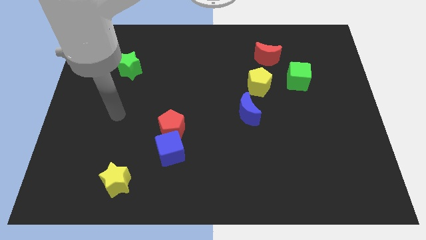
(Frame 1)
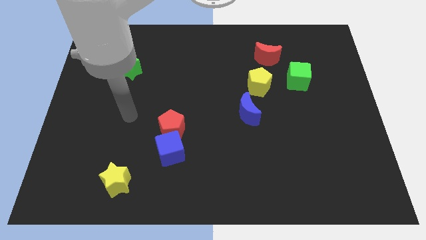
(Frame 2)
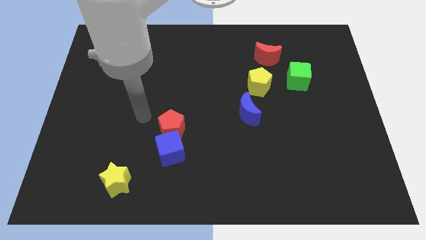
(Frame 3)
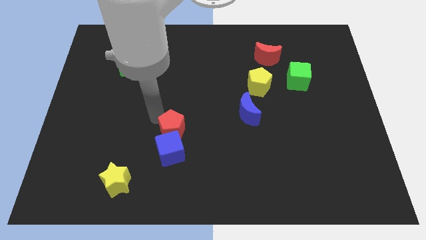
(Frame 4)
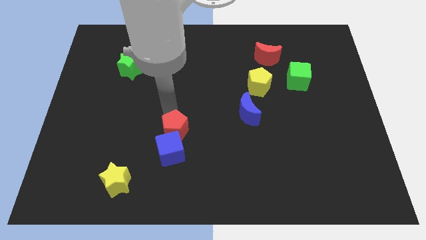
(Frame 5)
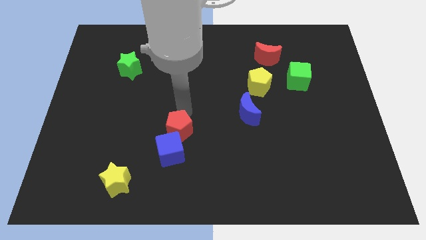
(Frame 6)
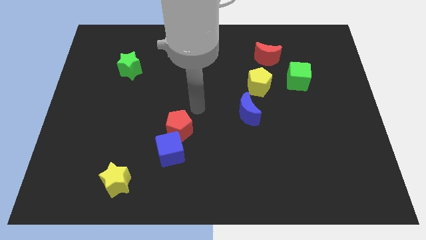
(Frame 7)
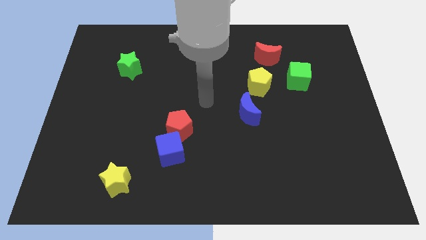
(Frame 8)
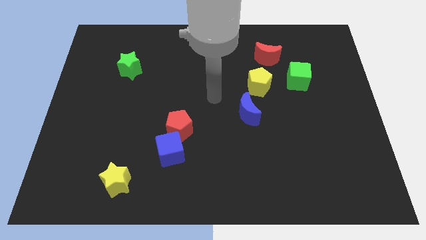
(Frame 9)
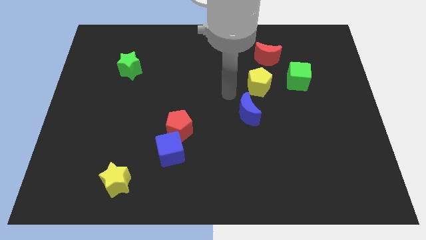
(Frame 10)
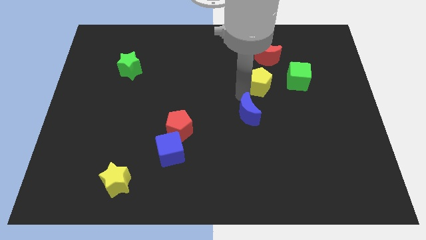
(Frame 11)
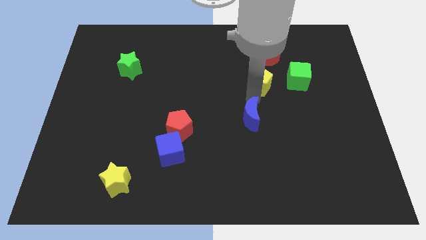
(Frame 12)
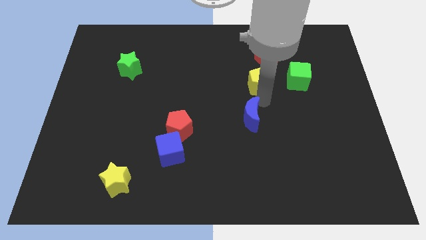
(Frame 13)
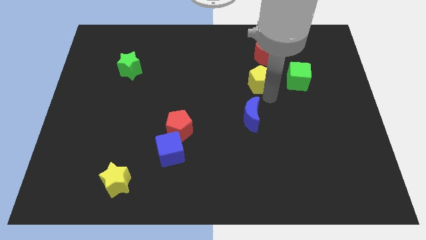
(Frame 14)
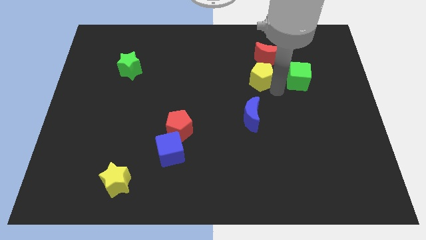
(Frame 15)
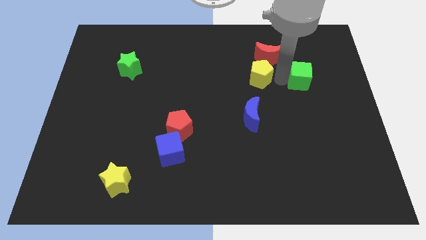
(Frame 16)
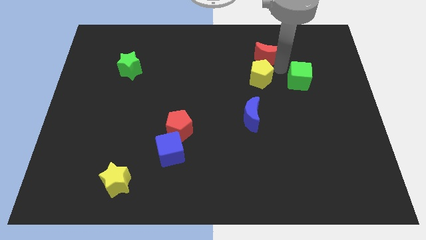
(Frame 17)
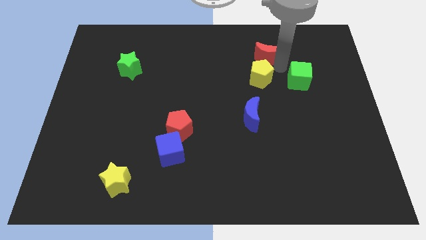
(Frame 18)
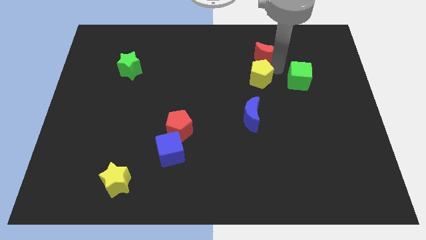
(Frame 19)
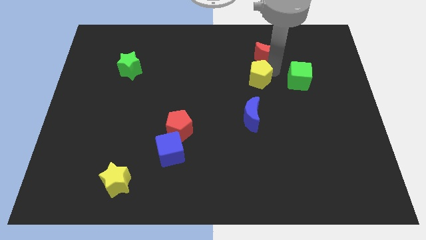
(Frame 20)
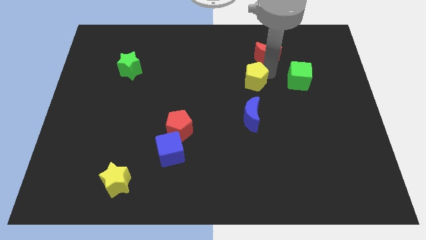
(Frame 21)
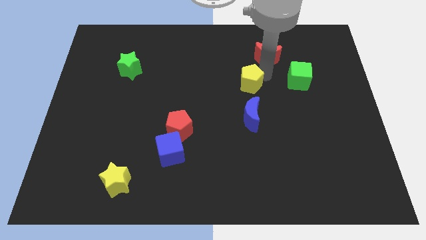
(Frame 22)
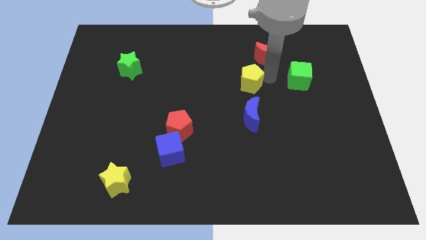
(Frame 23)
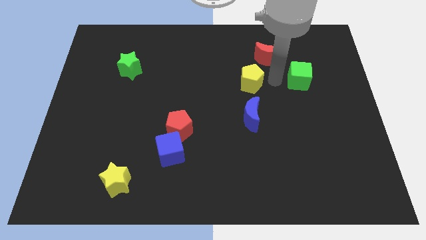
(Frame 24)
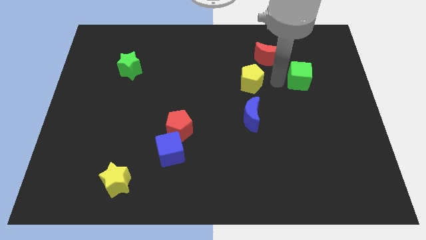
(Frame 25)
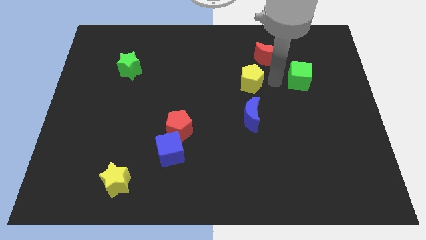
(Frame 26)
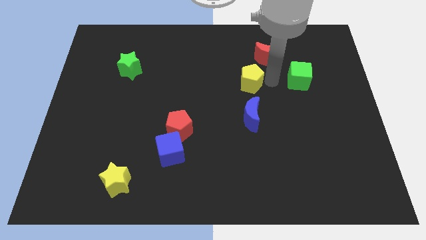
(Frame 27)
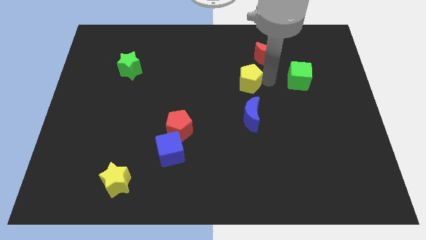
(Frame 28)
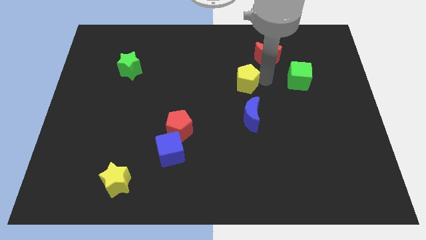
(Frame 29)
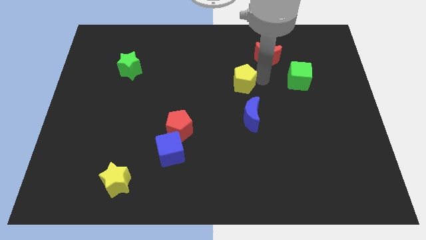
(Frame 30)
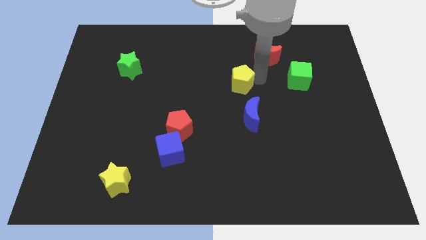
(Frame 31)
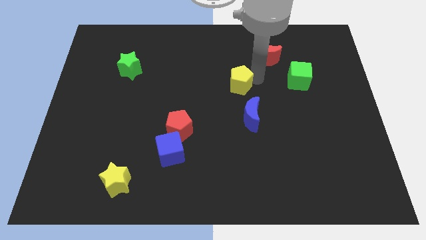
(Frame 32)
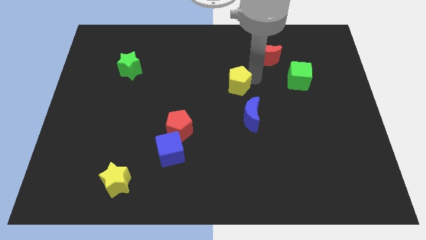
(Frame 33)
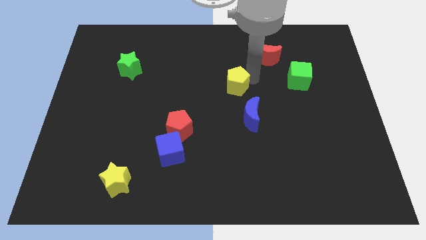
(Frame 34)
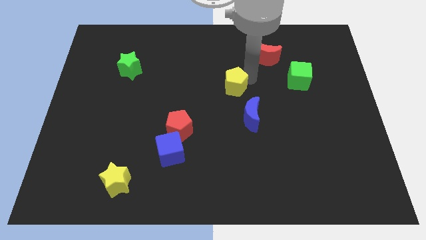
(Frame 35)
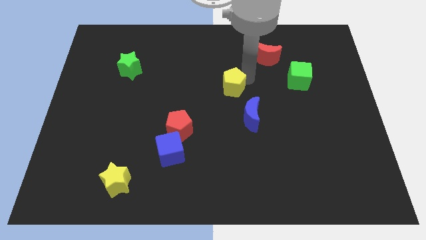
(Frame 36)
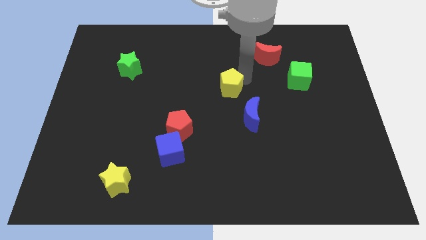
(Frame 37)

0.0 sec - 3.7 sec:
slide the yellow pentagon to the left slightly

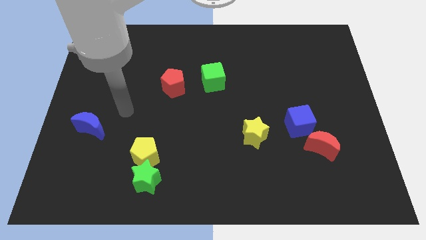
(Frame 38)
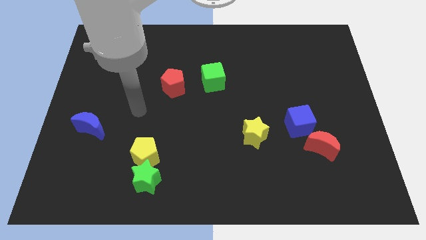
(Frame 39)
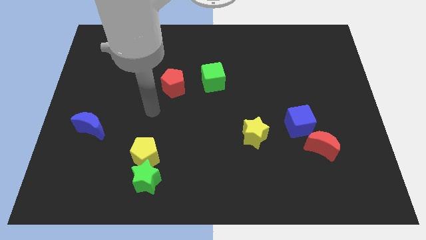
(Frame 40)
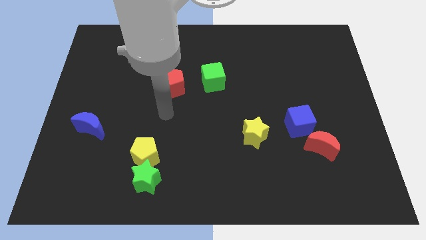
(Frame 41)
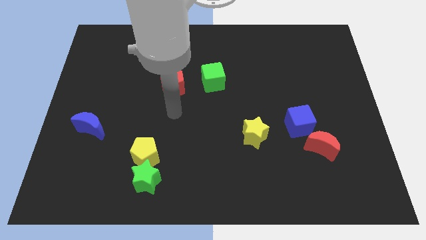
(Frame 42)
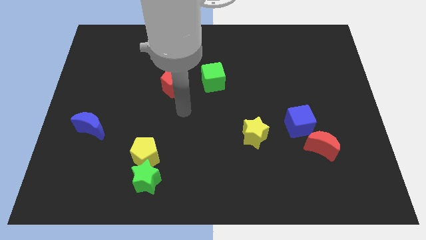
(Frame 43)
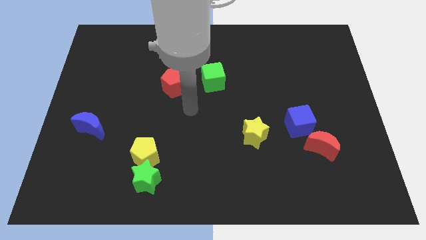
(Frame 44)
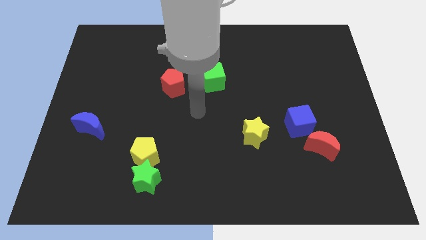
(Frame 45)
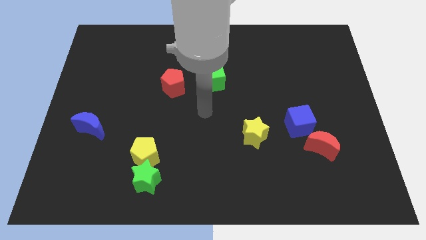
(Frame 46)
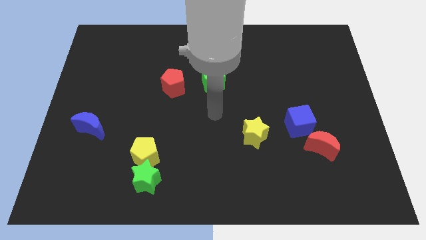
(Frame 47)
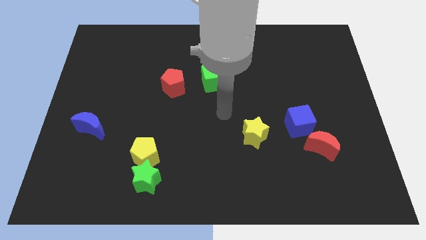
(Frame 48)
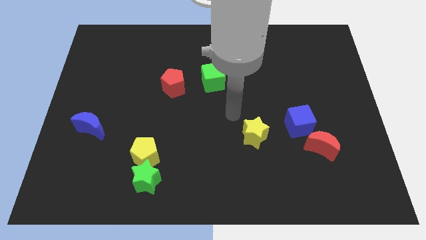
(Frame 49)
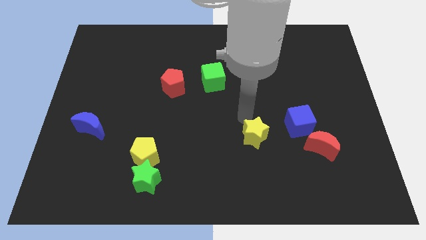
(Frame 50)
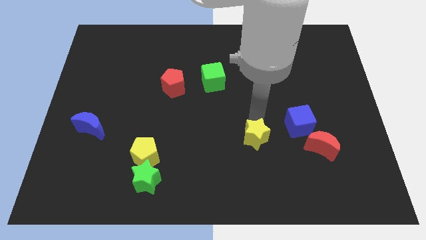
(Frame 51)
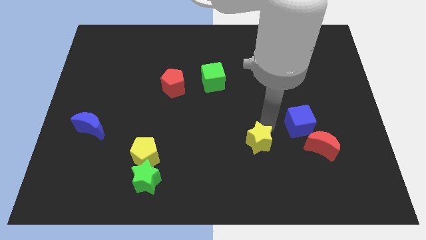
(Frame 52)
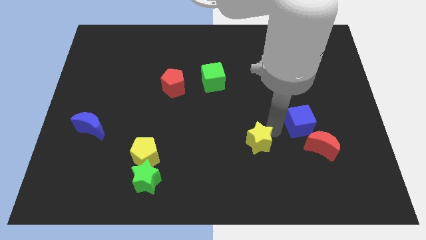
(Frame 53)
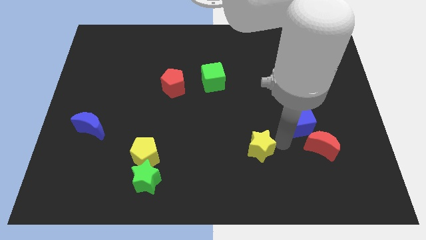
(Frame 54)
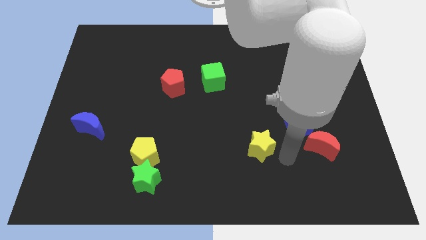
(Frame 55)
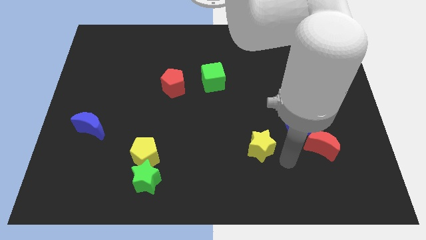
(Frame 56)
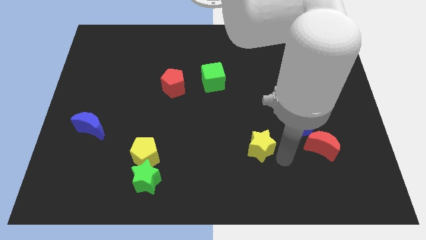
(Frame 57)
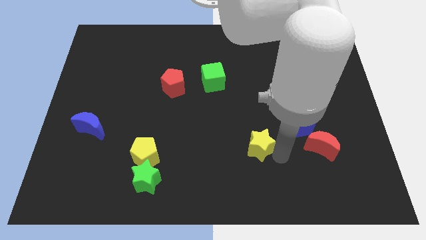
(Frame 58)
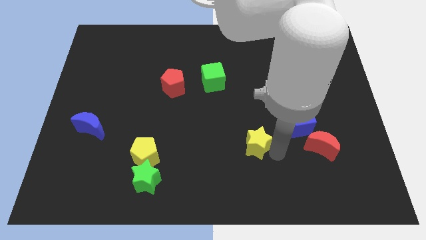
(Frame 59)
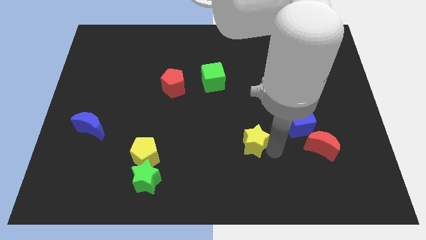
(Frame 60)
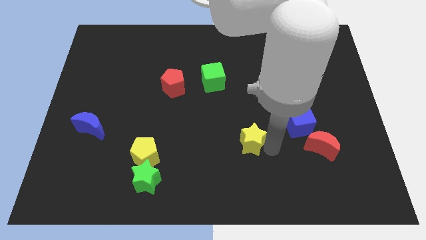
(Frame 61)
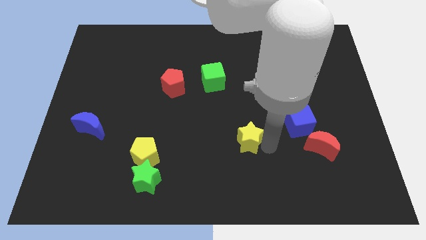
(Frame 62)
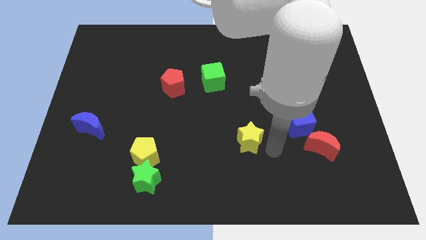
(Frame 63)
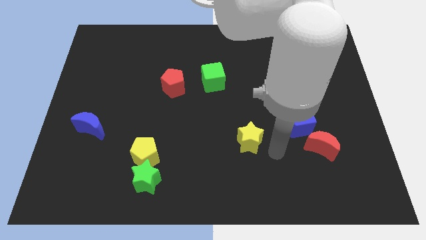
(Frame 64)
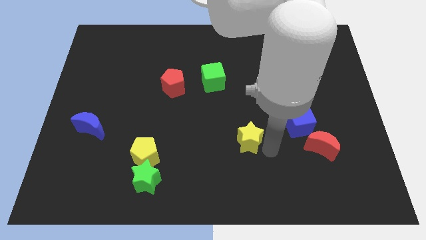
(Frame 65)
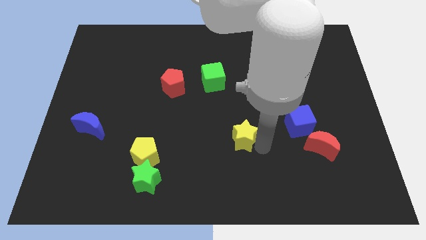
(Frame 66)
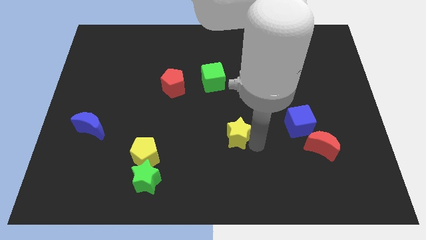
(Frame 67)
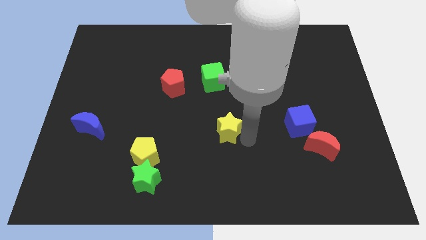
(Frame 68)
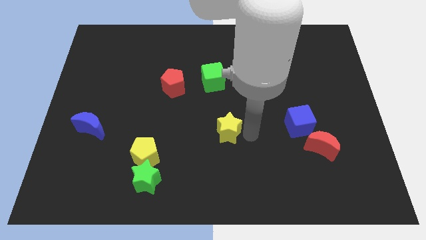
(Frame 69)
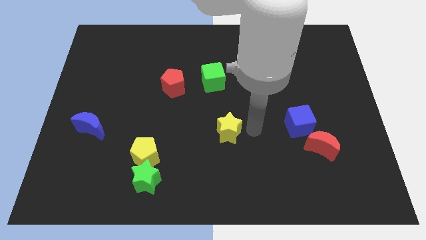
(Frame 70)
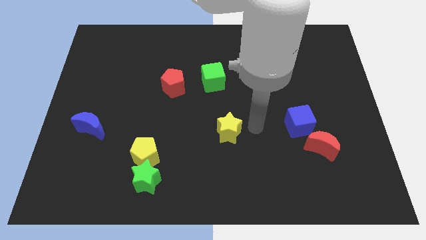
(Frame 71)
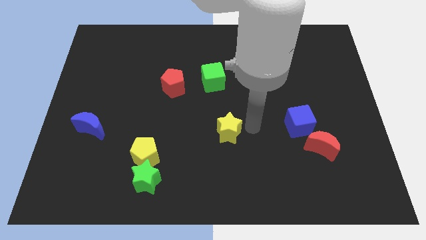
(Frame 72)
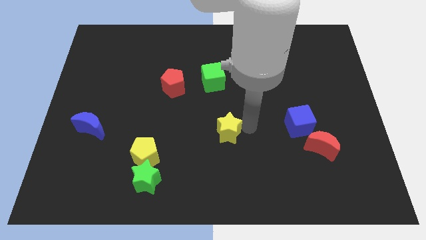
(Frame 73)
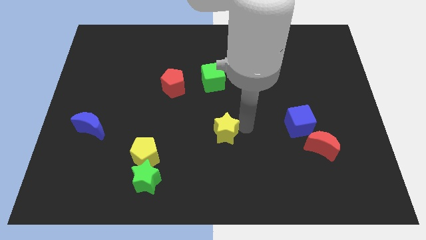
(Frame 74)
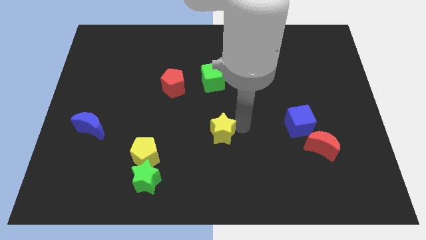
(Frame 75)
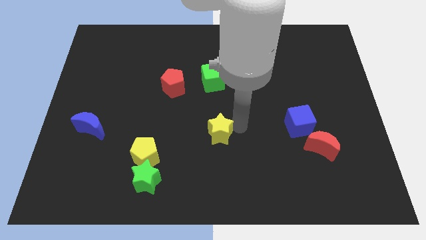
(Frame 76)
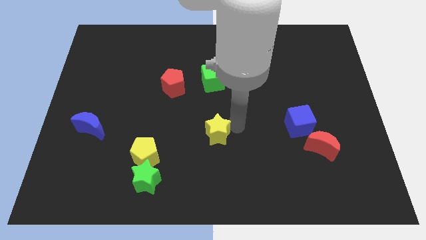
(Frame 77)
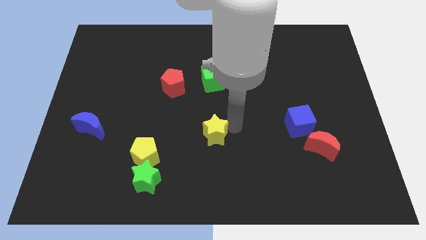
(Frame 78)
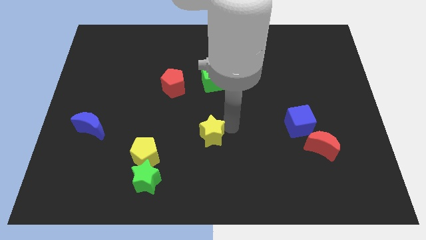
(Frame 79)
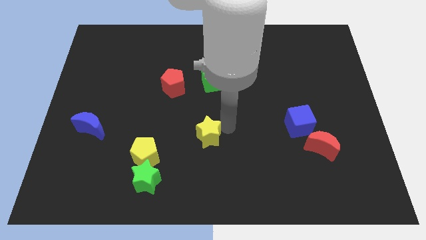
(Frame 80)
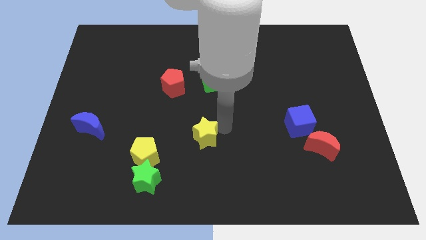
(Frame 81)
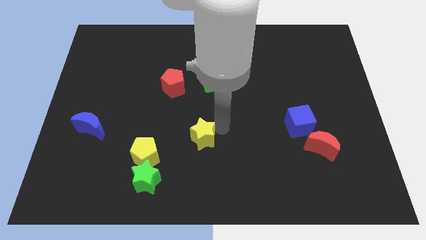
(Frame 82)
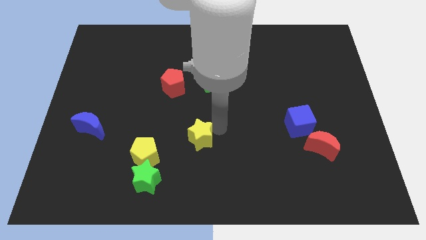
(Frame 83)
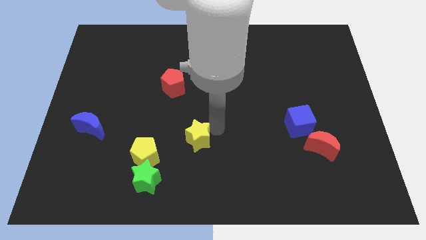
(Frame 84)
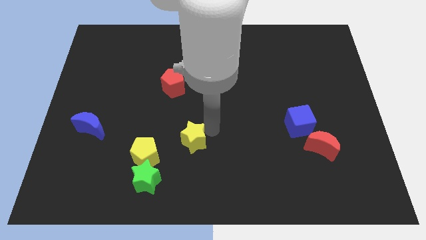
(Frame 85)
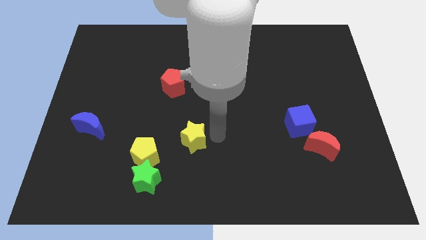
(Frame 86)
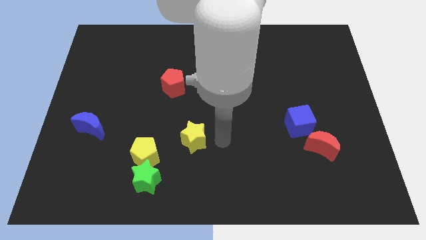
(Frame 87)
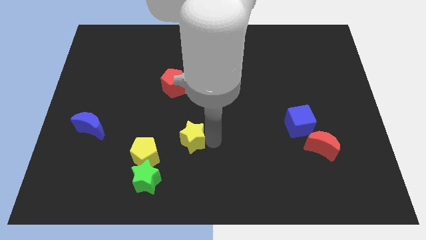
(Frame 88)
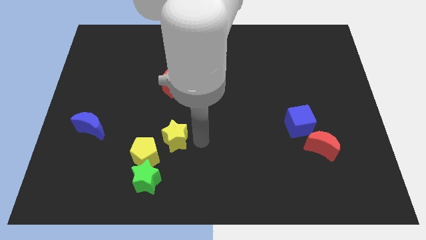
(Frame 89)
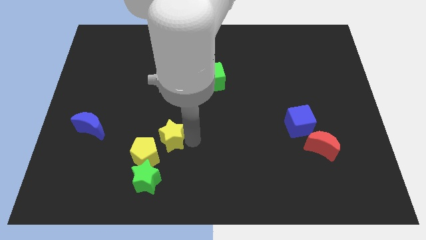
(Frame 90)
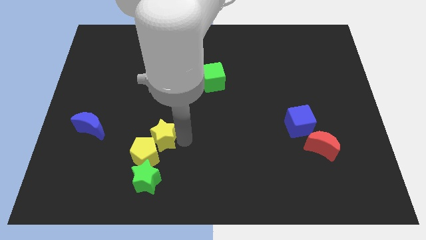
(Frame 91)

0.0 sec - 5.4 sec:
push the yellow star to the left
